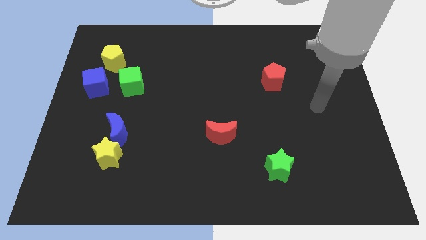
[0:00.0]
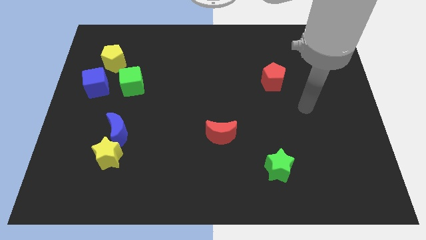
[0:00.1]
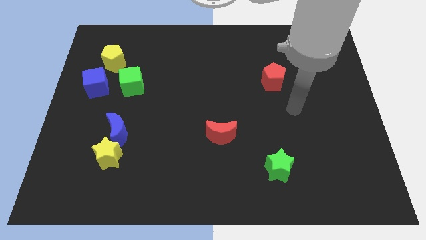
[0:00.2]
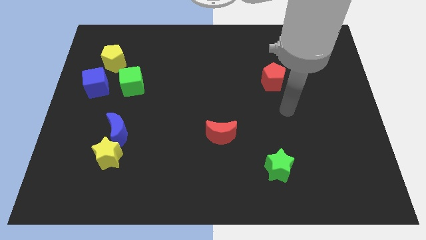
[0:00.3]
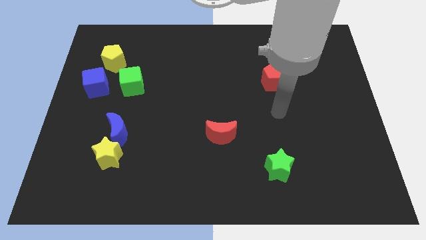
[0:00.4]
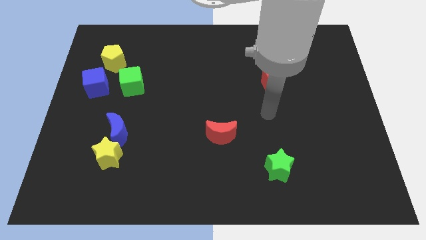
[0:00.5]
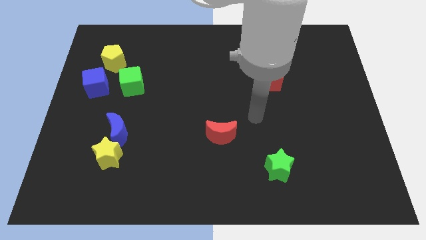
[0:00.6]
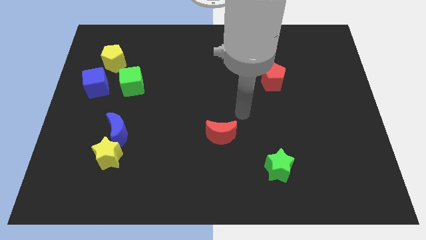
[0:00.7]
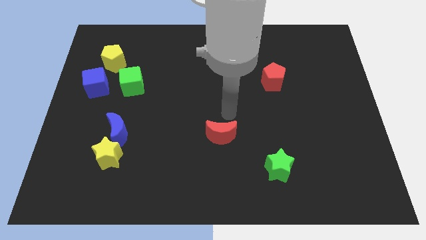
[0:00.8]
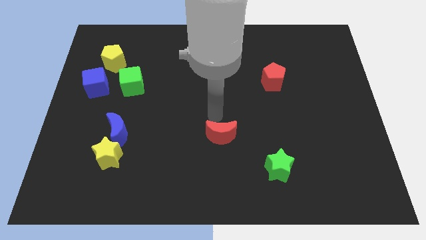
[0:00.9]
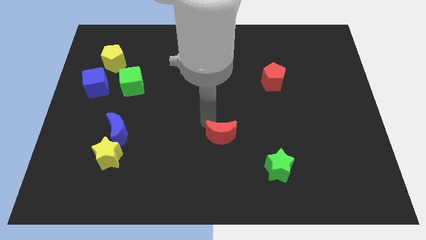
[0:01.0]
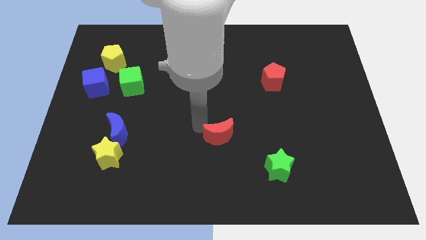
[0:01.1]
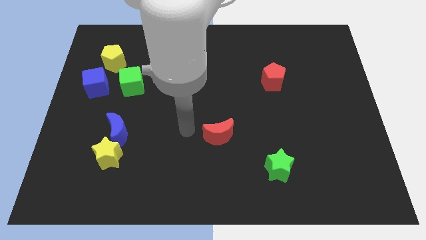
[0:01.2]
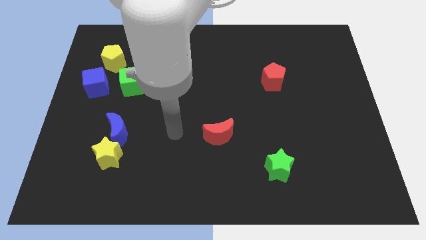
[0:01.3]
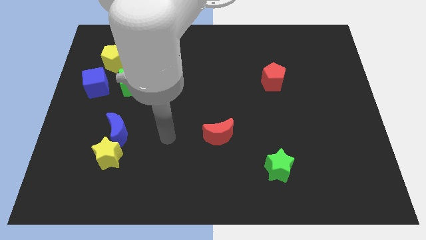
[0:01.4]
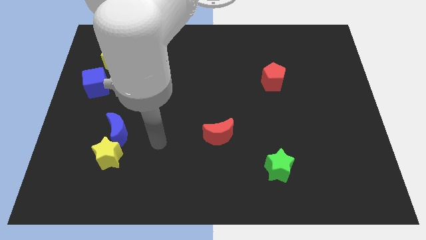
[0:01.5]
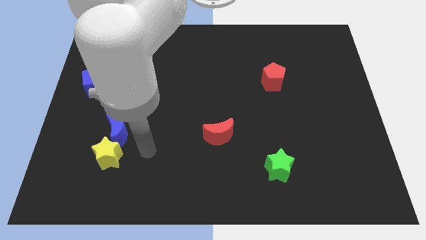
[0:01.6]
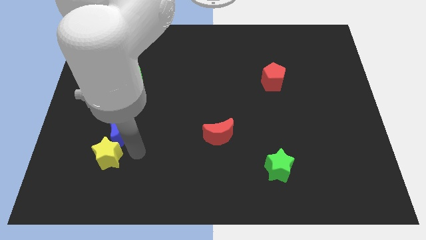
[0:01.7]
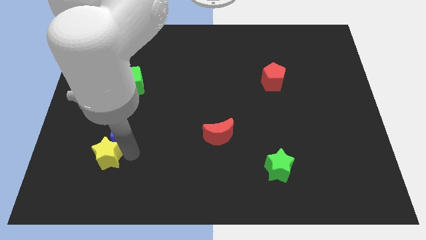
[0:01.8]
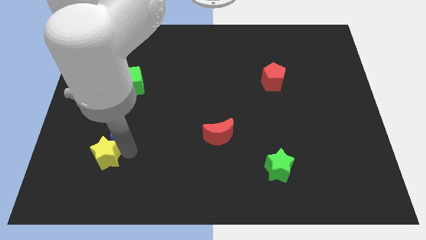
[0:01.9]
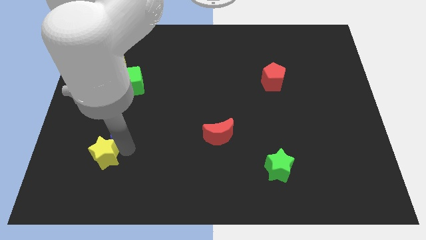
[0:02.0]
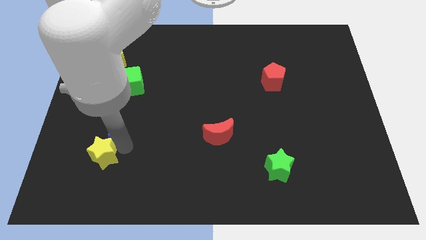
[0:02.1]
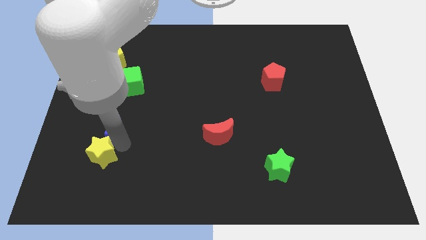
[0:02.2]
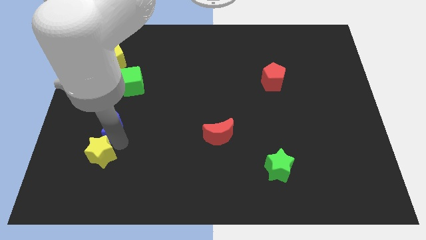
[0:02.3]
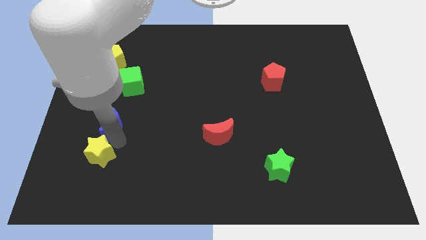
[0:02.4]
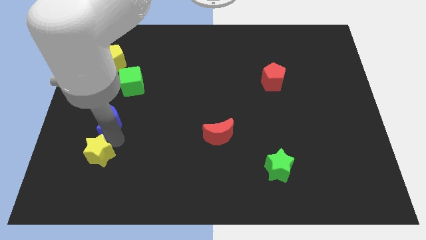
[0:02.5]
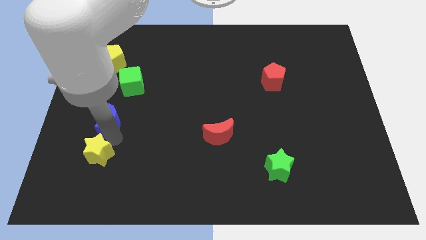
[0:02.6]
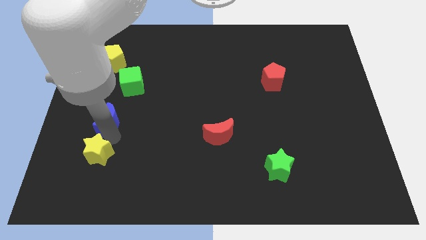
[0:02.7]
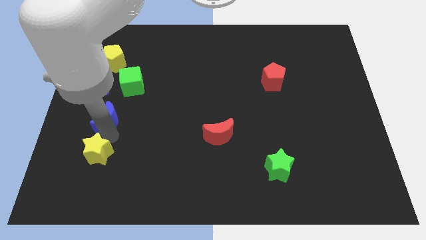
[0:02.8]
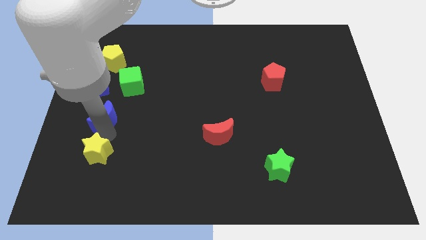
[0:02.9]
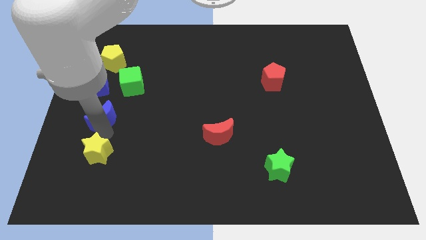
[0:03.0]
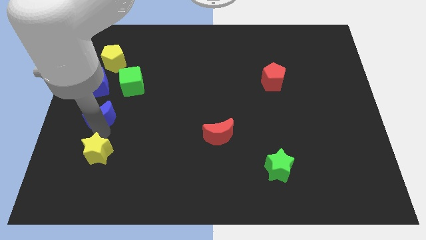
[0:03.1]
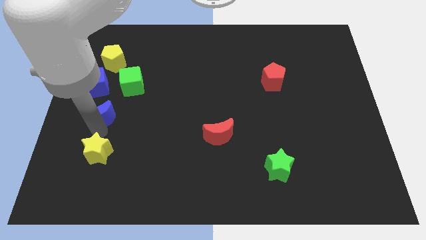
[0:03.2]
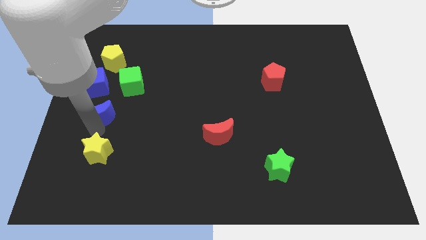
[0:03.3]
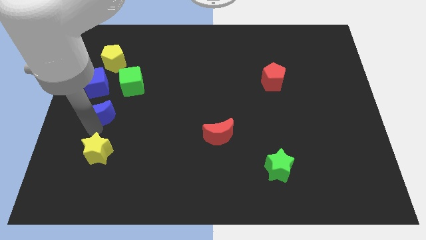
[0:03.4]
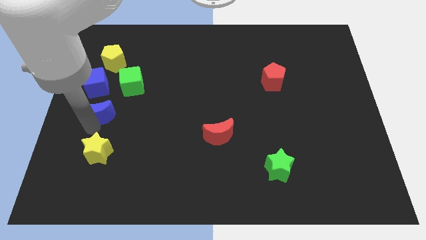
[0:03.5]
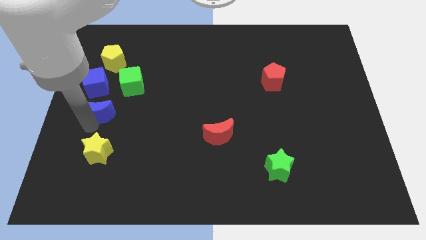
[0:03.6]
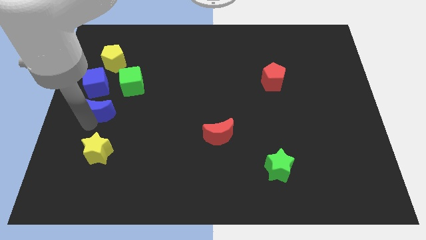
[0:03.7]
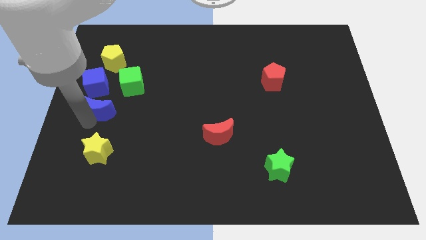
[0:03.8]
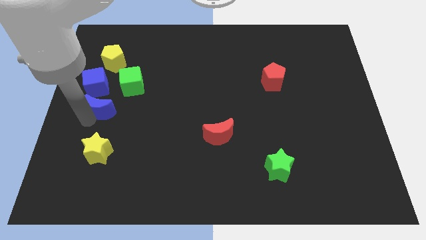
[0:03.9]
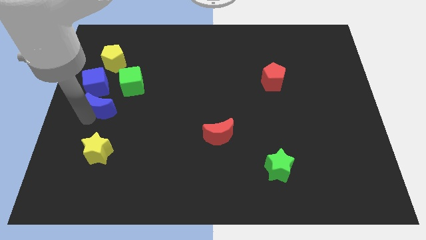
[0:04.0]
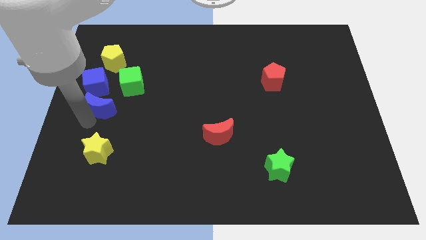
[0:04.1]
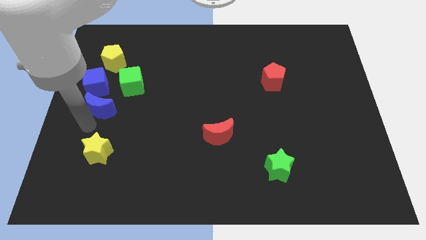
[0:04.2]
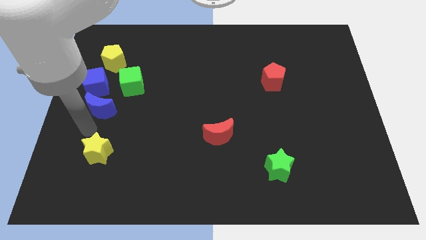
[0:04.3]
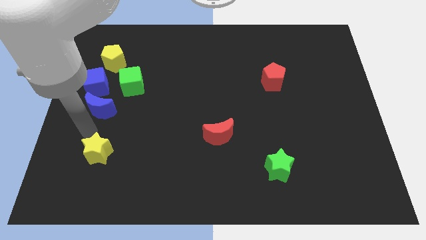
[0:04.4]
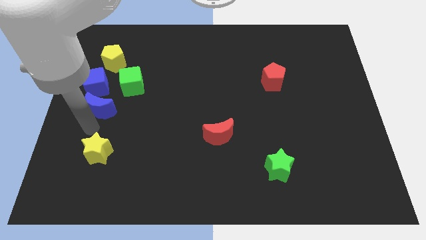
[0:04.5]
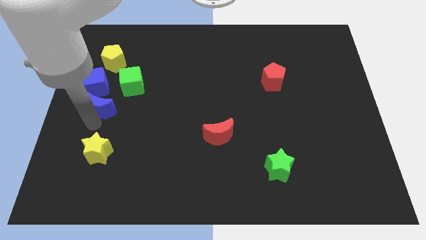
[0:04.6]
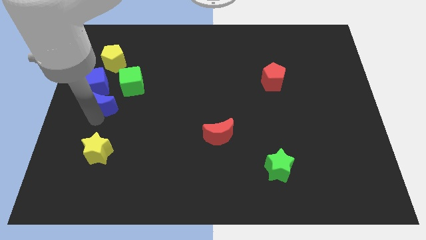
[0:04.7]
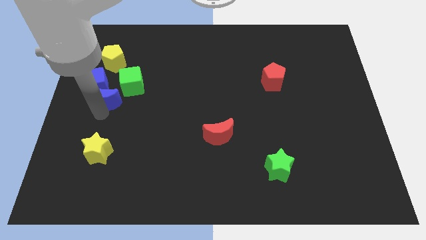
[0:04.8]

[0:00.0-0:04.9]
move the blue moon next to the blue cube

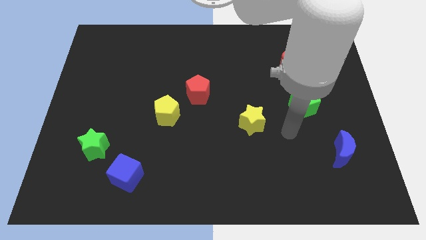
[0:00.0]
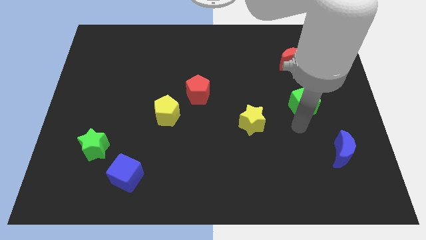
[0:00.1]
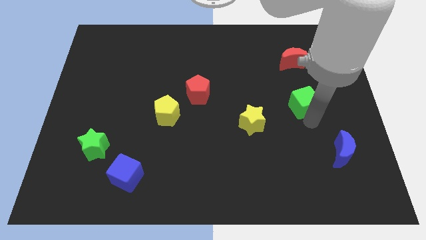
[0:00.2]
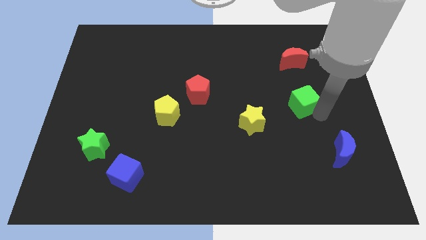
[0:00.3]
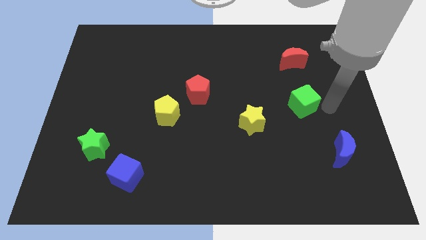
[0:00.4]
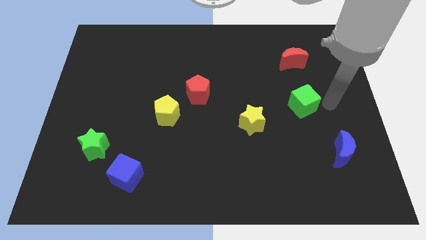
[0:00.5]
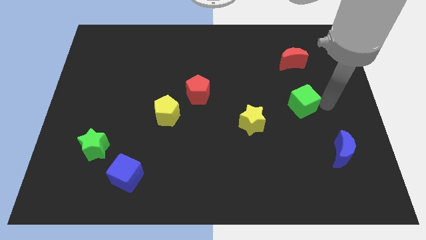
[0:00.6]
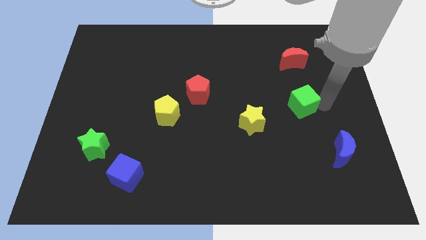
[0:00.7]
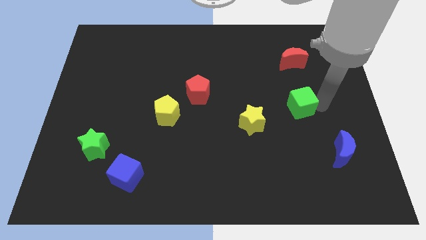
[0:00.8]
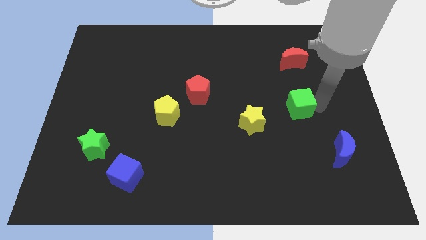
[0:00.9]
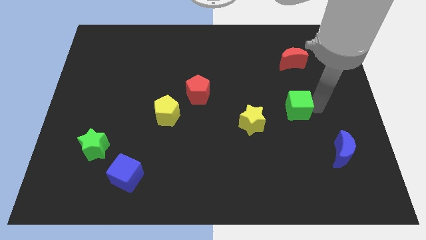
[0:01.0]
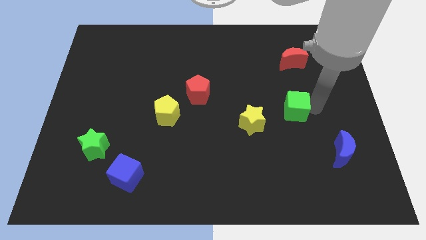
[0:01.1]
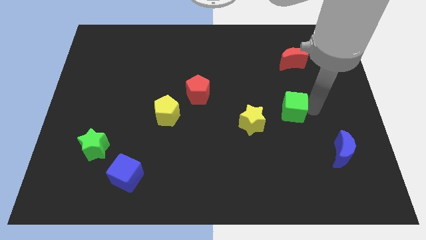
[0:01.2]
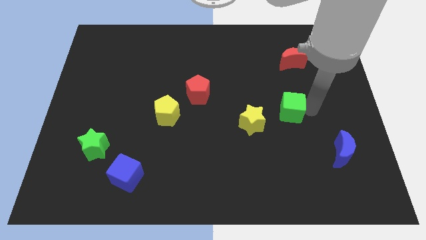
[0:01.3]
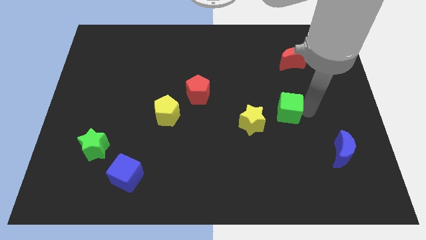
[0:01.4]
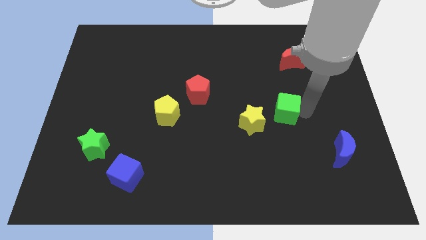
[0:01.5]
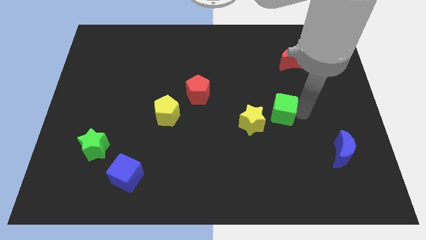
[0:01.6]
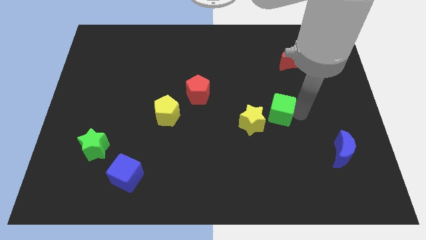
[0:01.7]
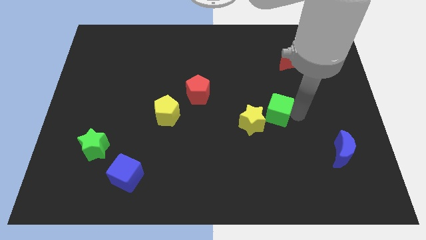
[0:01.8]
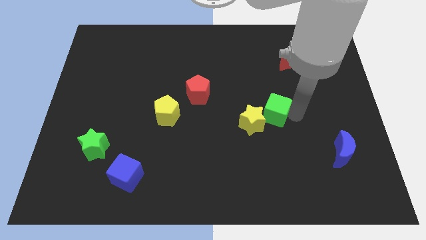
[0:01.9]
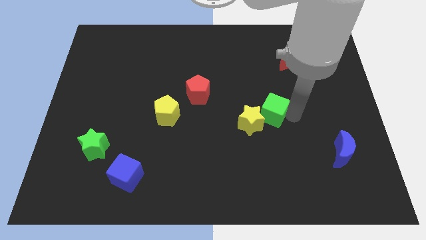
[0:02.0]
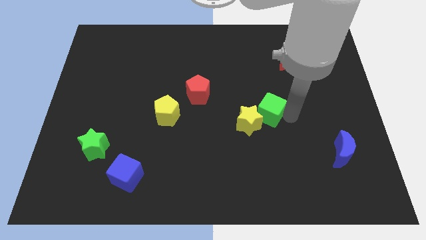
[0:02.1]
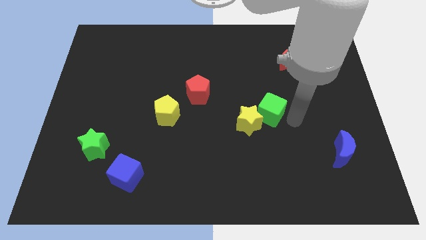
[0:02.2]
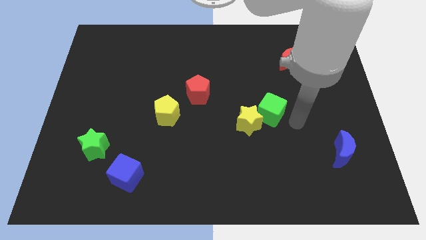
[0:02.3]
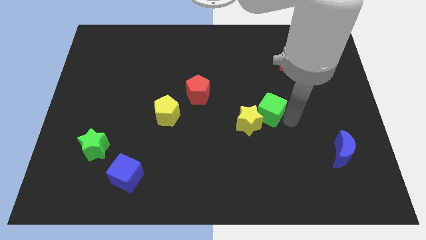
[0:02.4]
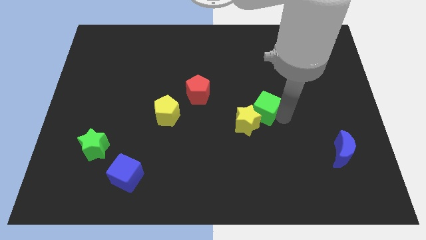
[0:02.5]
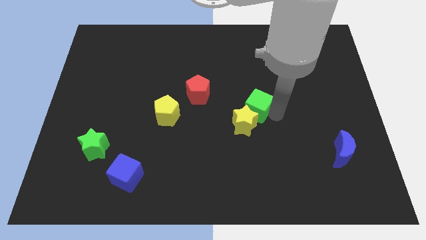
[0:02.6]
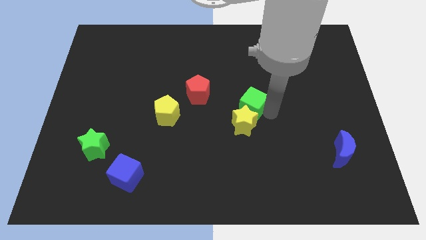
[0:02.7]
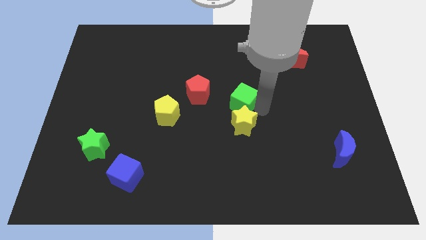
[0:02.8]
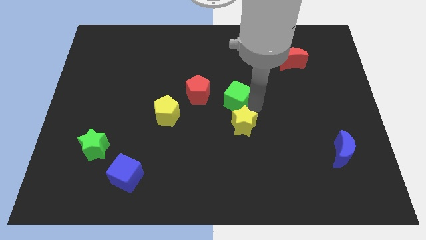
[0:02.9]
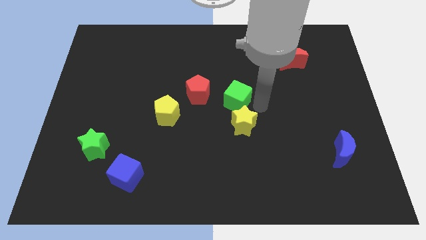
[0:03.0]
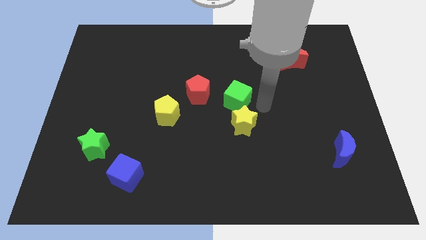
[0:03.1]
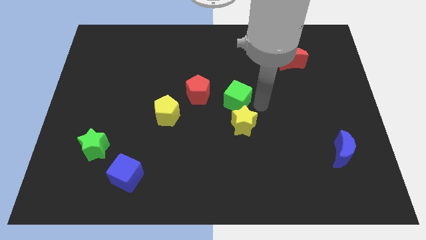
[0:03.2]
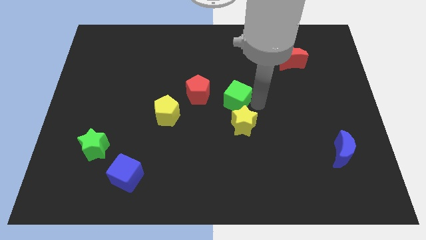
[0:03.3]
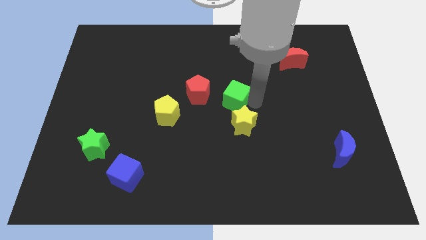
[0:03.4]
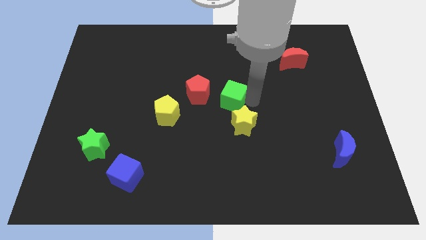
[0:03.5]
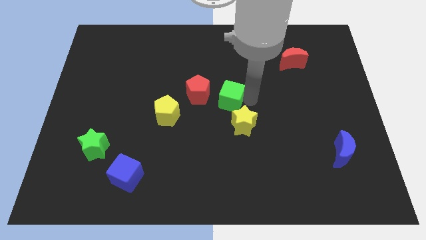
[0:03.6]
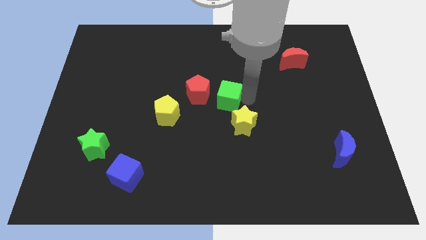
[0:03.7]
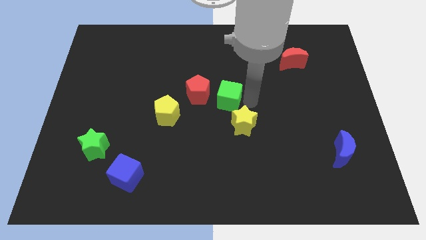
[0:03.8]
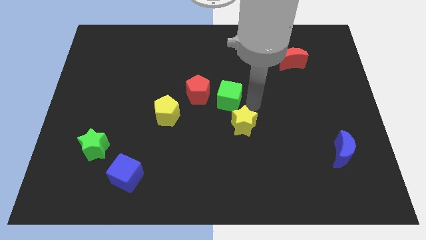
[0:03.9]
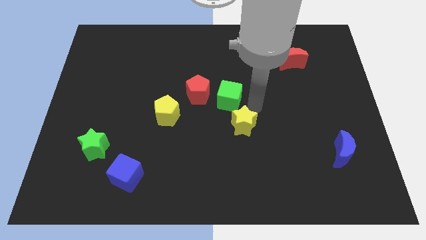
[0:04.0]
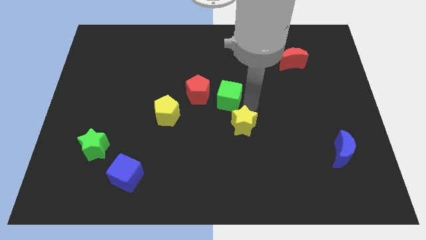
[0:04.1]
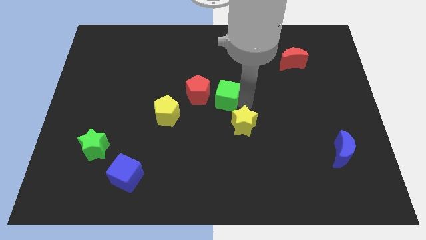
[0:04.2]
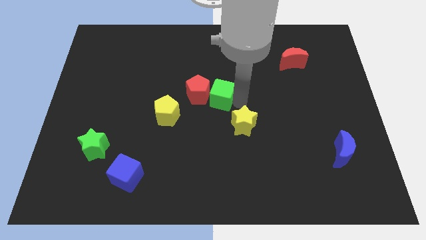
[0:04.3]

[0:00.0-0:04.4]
slide the green cube next to the red pentagon
